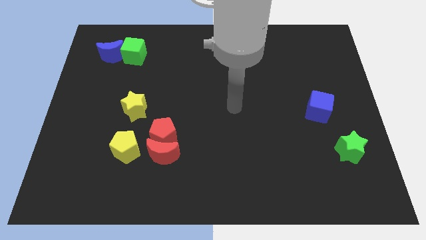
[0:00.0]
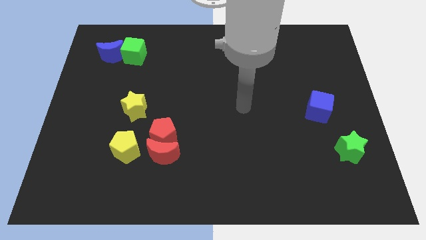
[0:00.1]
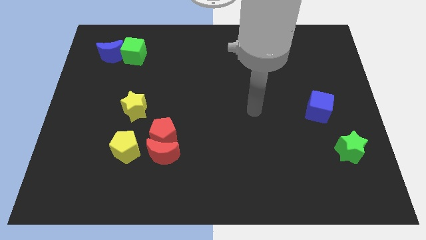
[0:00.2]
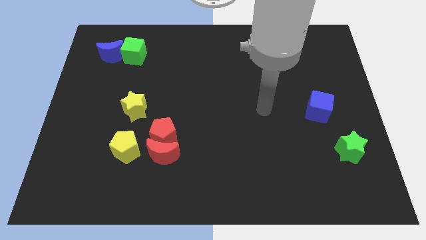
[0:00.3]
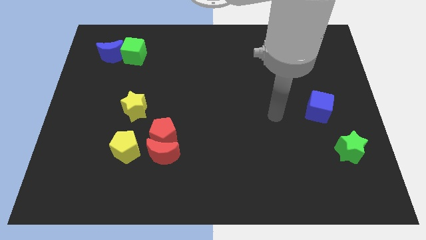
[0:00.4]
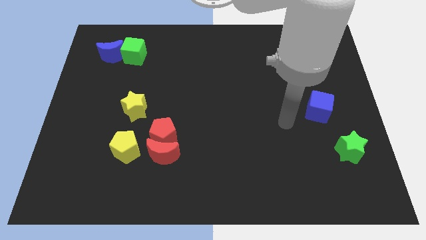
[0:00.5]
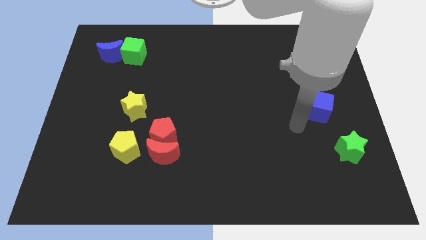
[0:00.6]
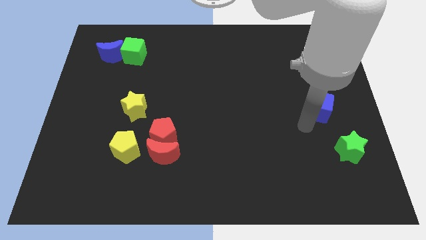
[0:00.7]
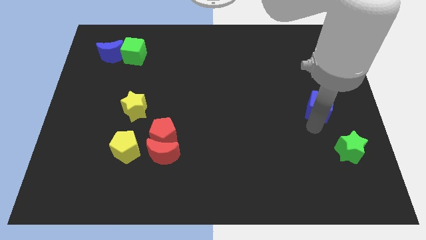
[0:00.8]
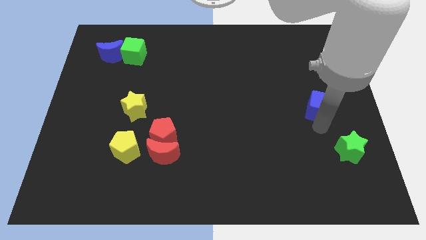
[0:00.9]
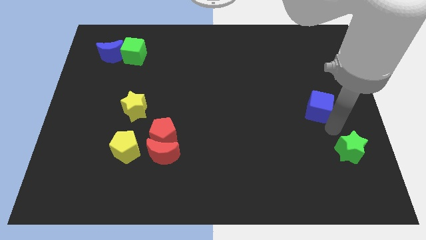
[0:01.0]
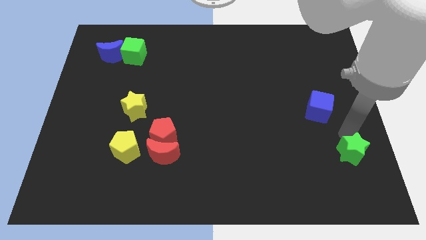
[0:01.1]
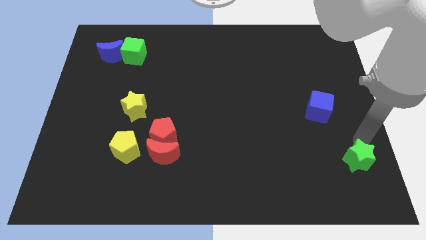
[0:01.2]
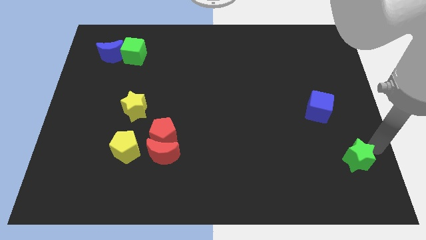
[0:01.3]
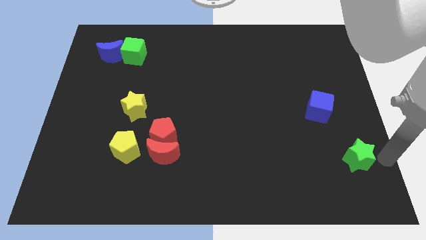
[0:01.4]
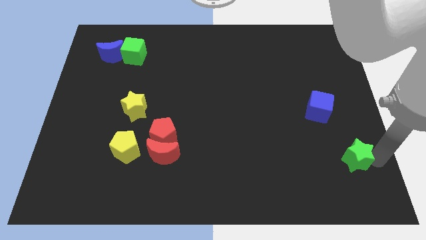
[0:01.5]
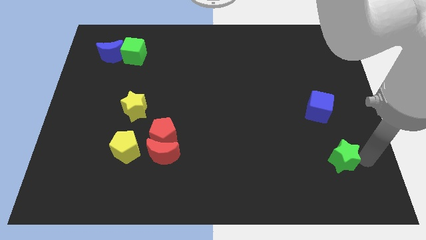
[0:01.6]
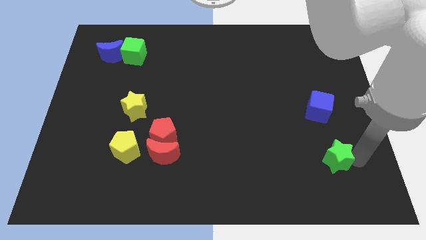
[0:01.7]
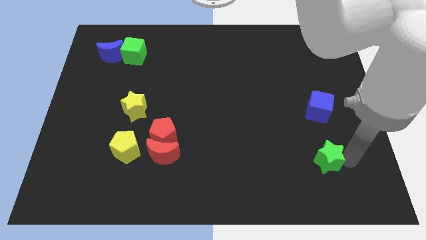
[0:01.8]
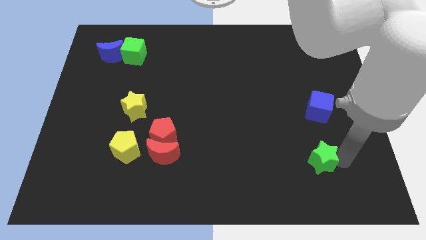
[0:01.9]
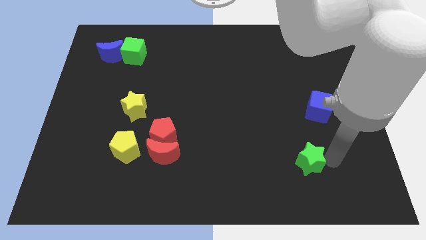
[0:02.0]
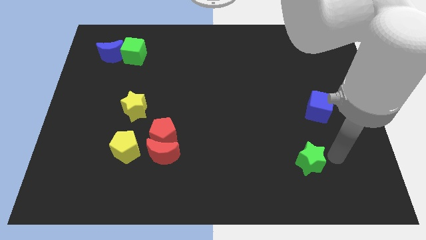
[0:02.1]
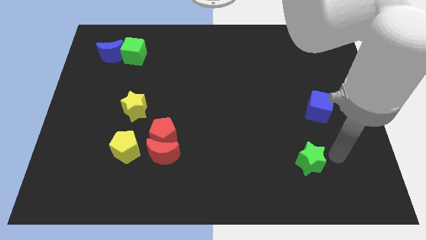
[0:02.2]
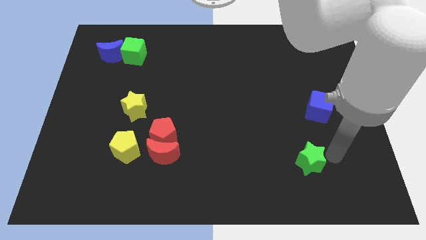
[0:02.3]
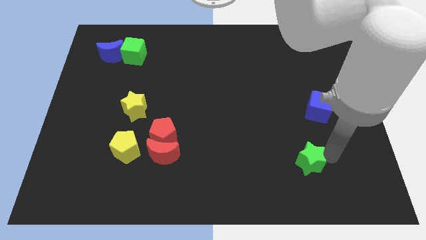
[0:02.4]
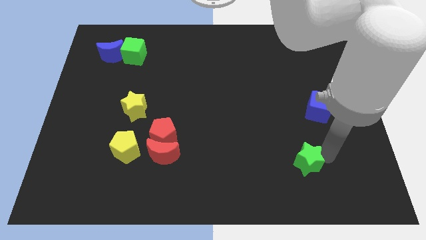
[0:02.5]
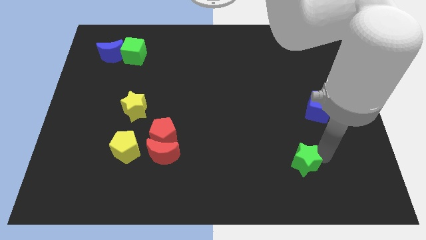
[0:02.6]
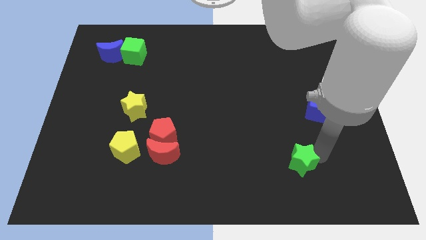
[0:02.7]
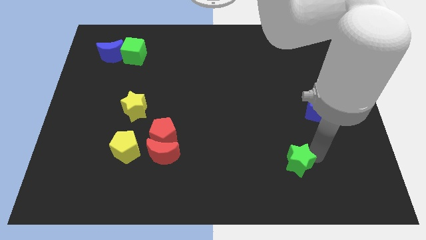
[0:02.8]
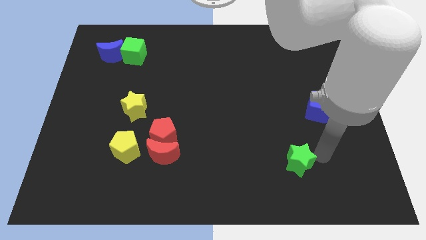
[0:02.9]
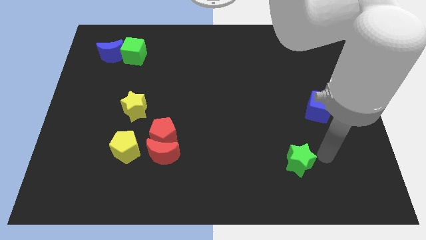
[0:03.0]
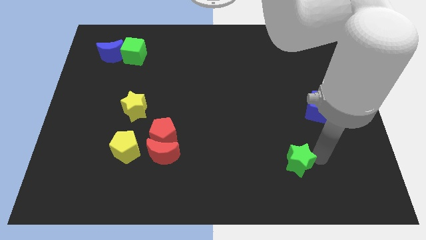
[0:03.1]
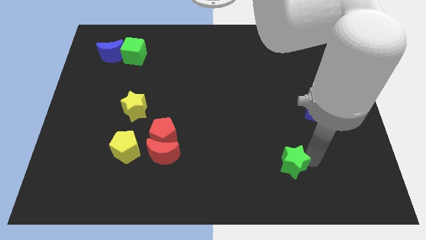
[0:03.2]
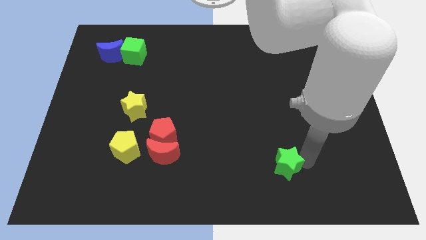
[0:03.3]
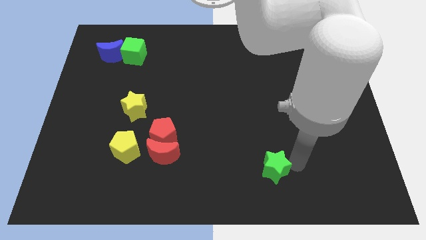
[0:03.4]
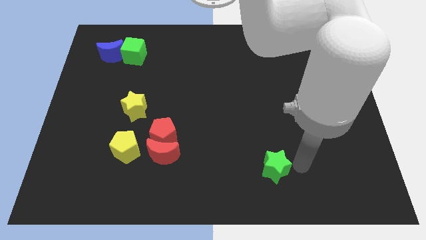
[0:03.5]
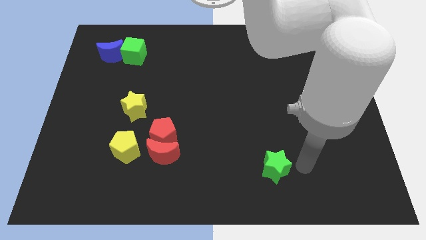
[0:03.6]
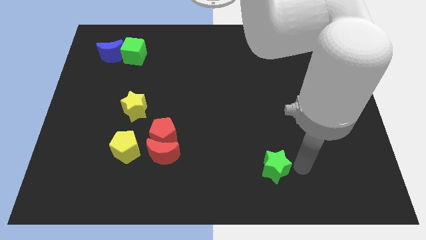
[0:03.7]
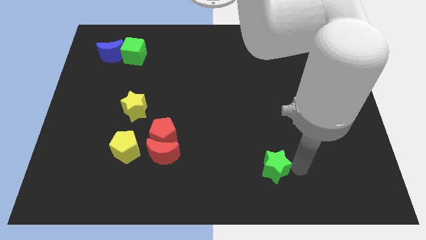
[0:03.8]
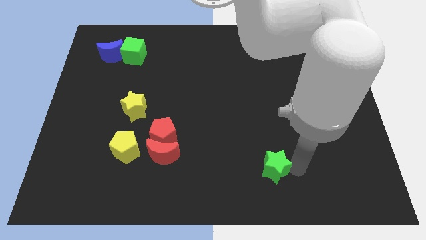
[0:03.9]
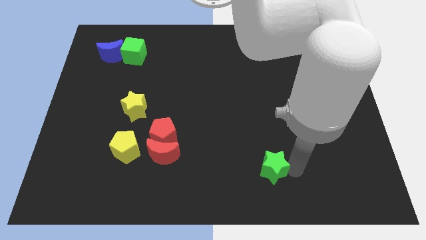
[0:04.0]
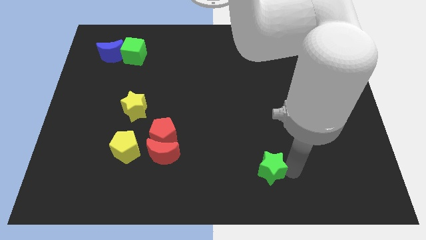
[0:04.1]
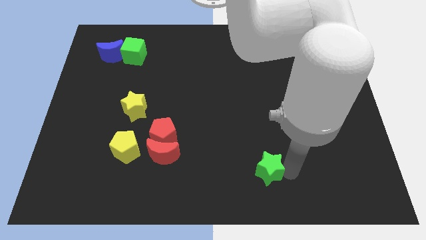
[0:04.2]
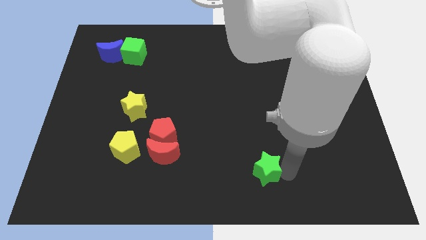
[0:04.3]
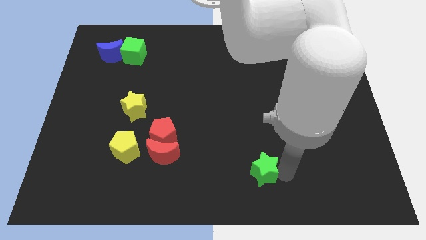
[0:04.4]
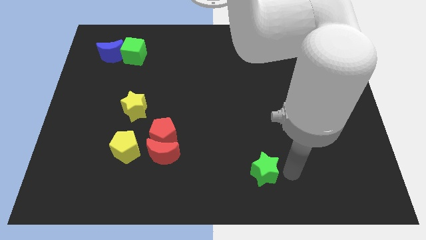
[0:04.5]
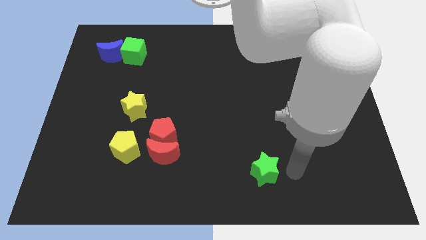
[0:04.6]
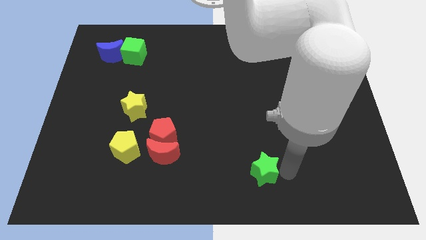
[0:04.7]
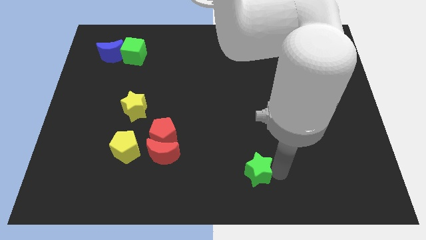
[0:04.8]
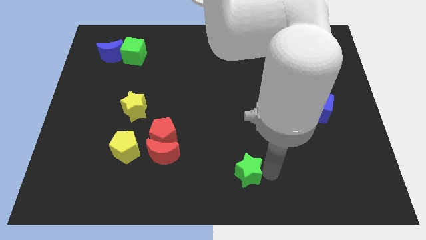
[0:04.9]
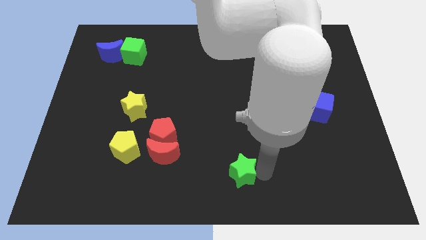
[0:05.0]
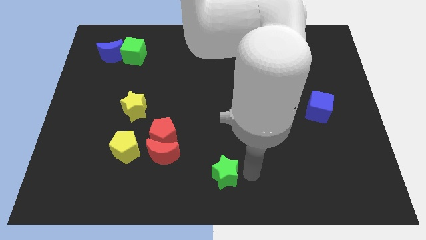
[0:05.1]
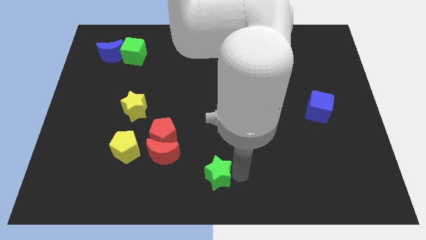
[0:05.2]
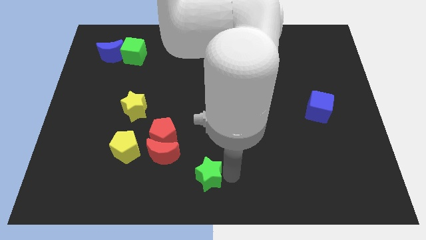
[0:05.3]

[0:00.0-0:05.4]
move the green star to the bottom right of the red moon

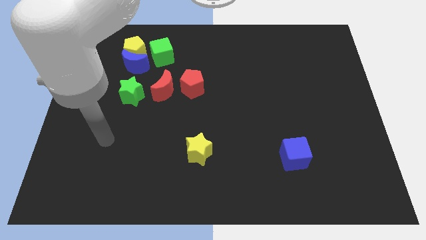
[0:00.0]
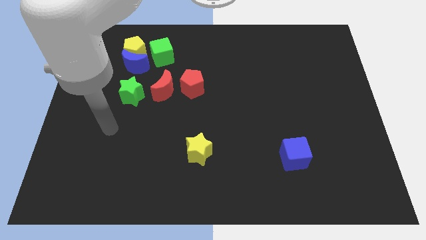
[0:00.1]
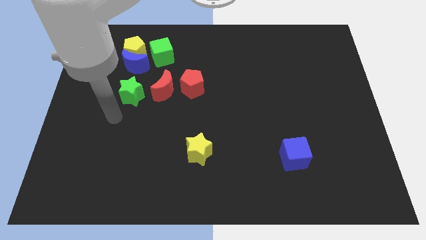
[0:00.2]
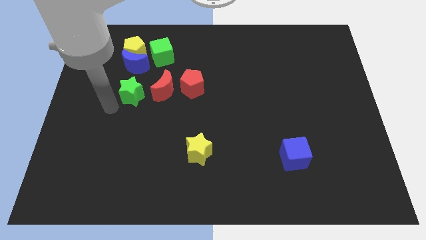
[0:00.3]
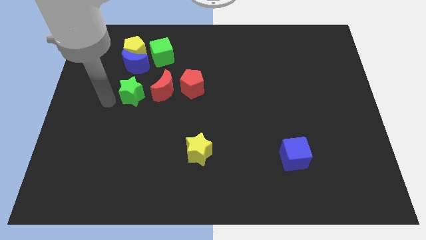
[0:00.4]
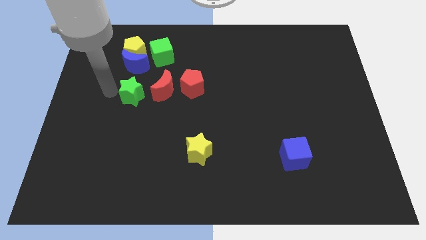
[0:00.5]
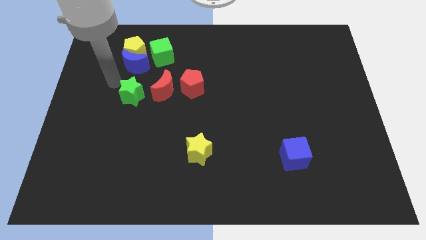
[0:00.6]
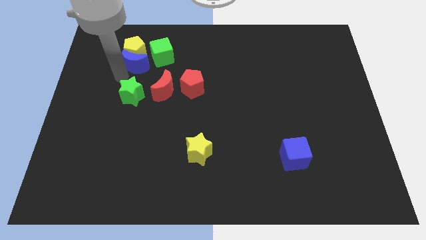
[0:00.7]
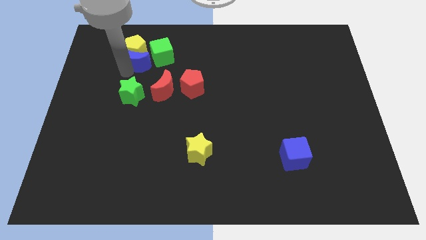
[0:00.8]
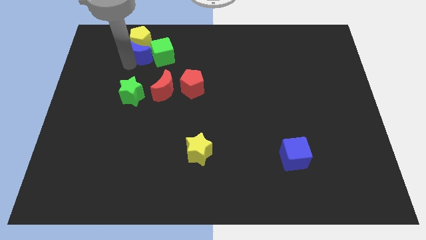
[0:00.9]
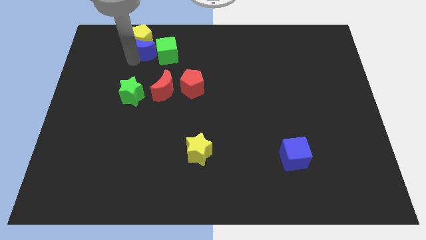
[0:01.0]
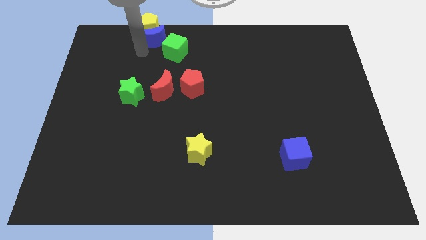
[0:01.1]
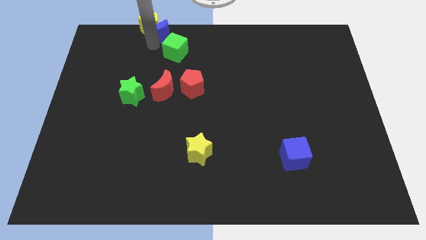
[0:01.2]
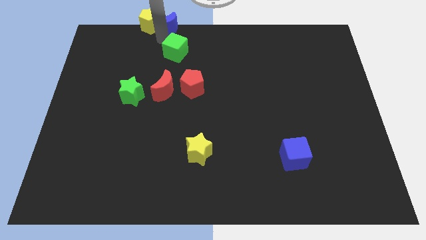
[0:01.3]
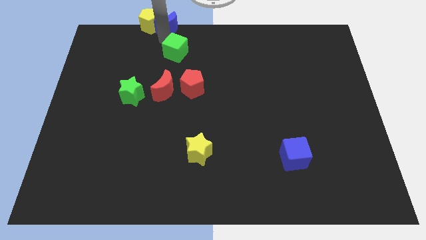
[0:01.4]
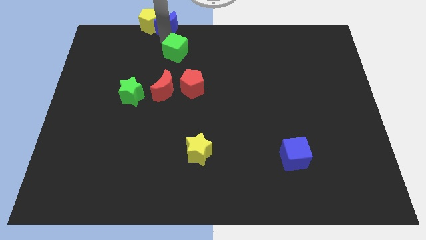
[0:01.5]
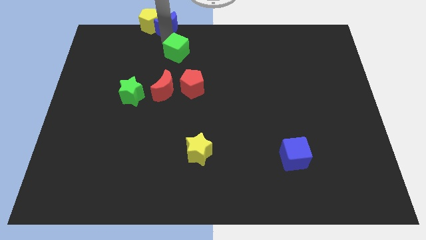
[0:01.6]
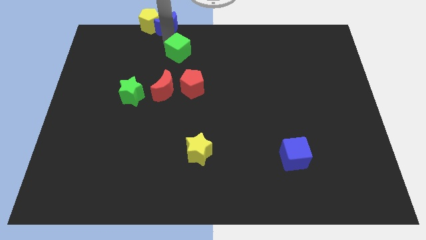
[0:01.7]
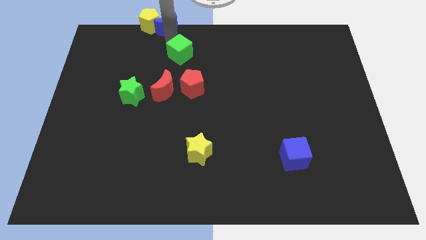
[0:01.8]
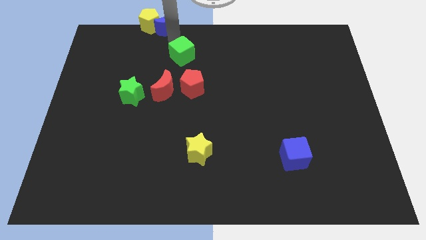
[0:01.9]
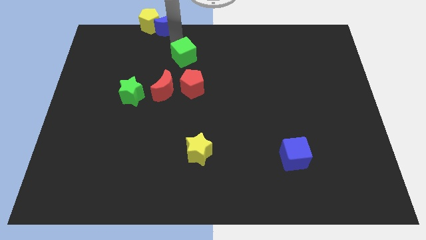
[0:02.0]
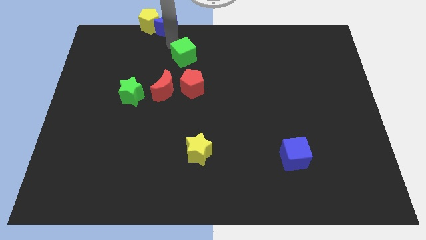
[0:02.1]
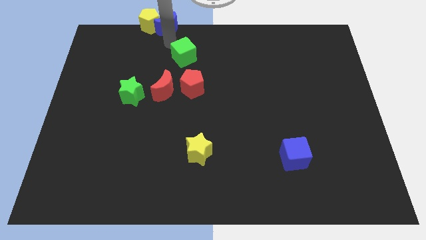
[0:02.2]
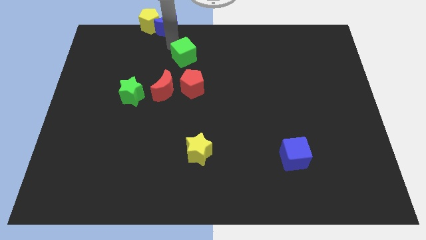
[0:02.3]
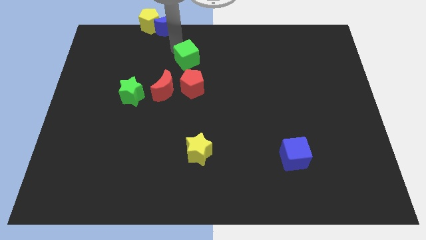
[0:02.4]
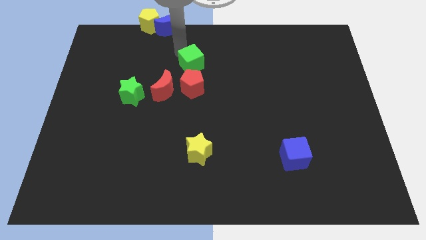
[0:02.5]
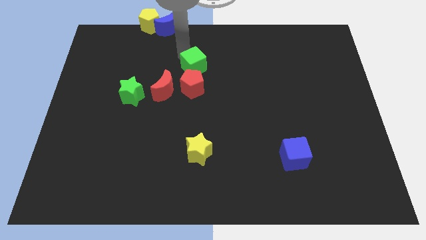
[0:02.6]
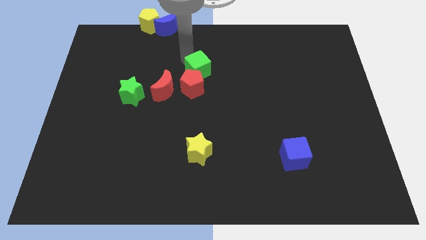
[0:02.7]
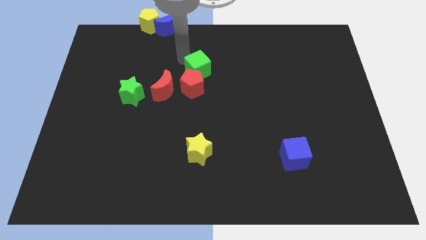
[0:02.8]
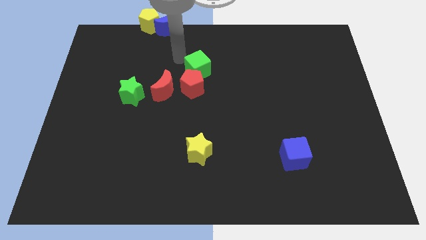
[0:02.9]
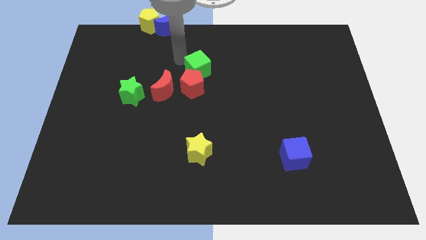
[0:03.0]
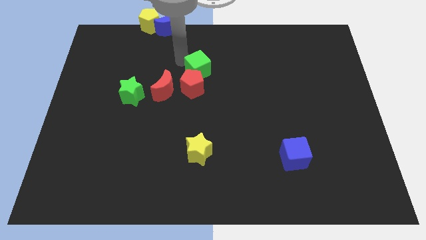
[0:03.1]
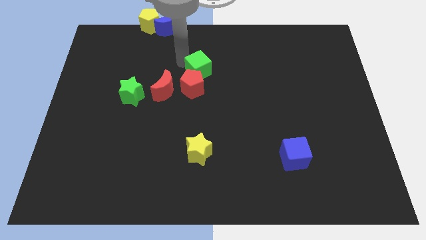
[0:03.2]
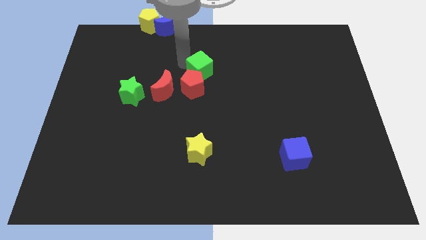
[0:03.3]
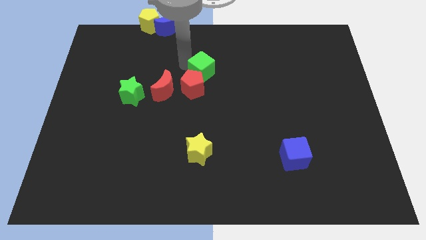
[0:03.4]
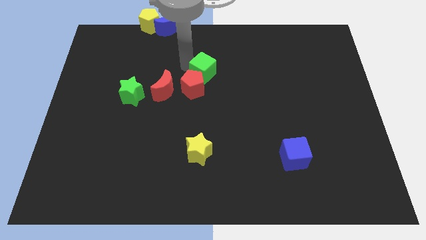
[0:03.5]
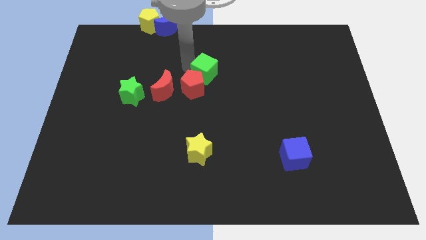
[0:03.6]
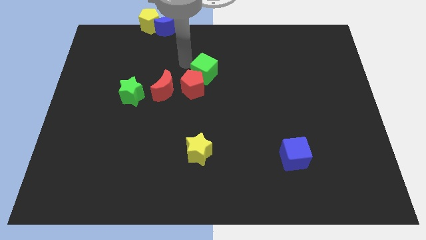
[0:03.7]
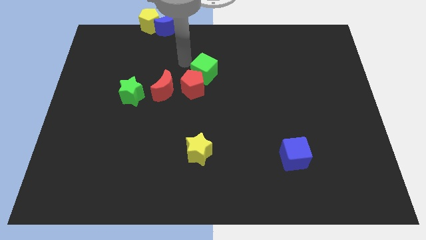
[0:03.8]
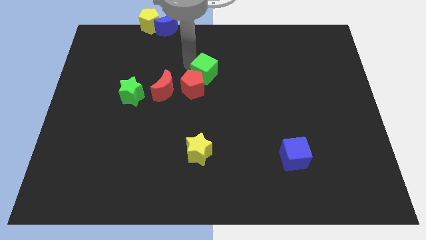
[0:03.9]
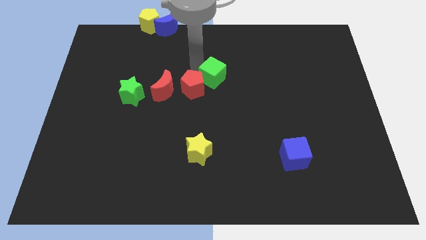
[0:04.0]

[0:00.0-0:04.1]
put the green cube right of the red pentagon
